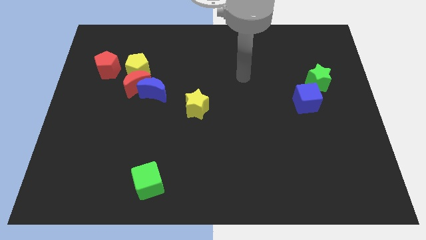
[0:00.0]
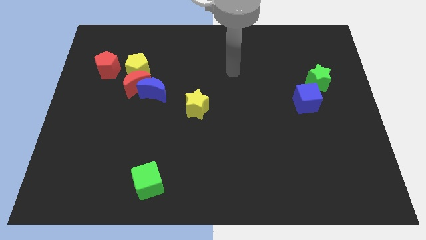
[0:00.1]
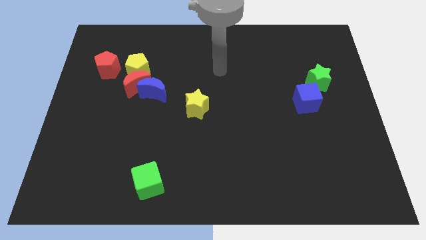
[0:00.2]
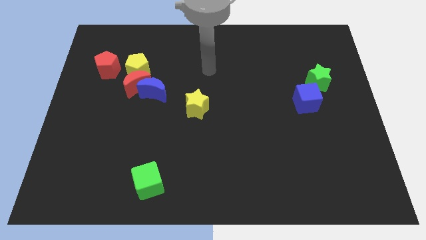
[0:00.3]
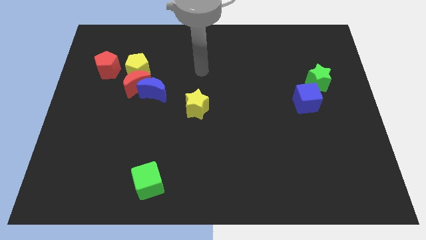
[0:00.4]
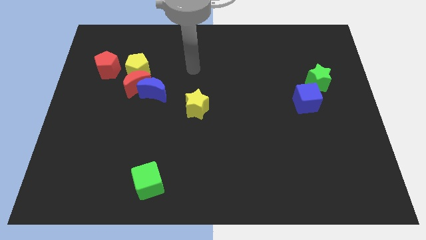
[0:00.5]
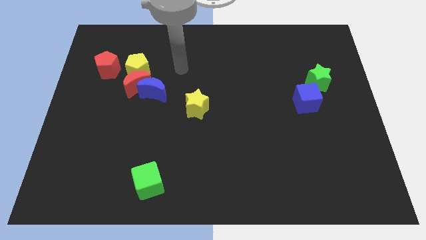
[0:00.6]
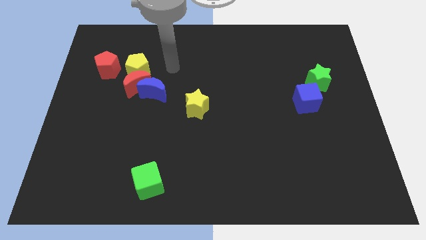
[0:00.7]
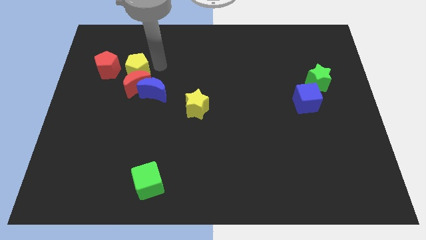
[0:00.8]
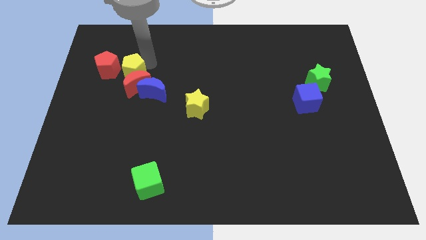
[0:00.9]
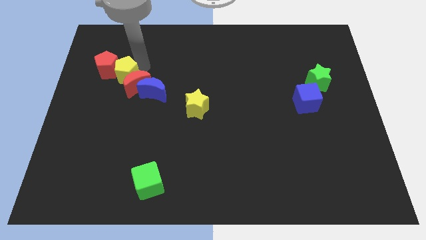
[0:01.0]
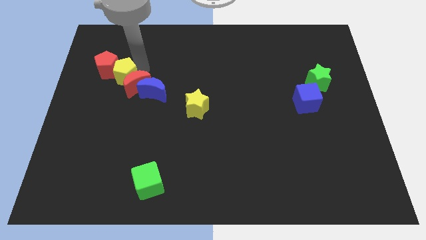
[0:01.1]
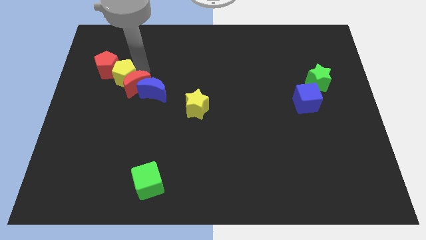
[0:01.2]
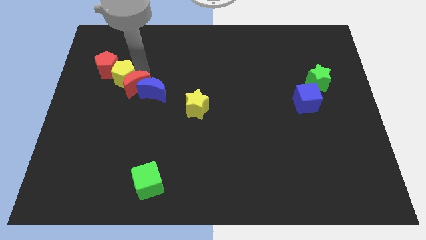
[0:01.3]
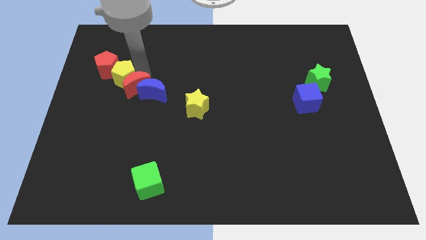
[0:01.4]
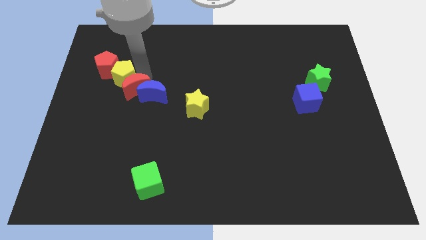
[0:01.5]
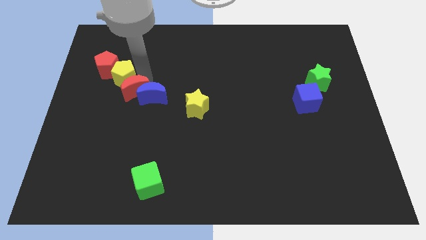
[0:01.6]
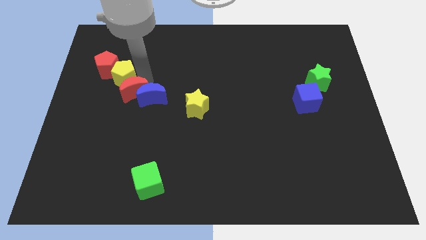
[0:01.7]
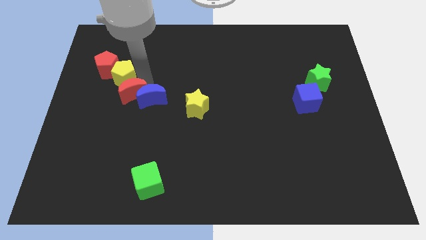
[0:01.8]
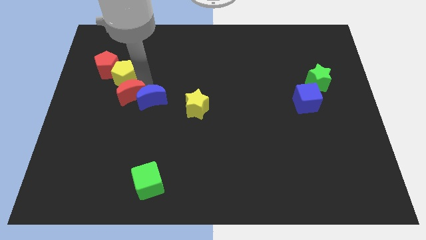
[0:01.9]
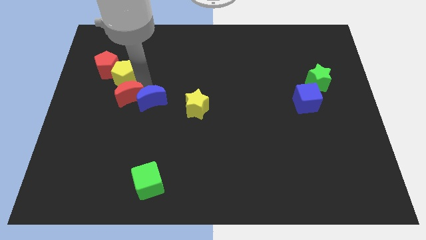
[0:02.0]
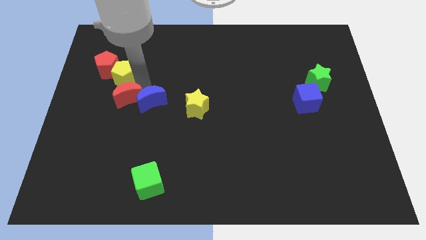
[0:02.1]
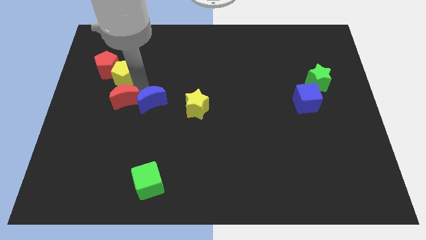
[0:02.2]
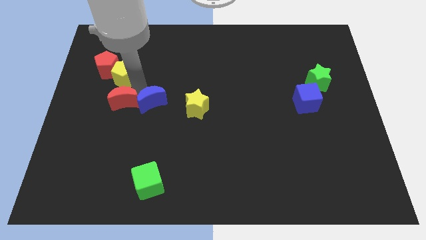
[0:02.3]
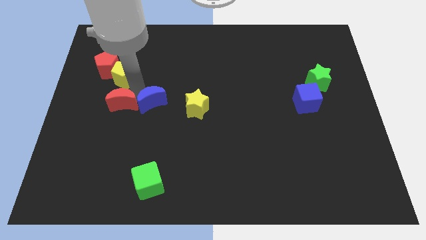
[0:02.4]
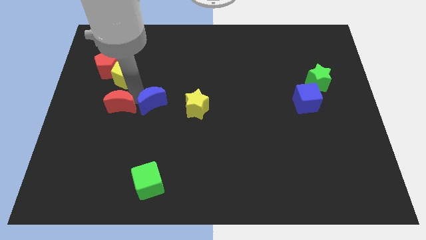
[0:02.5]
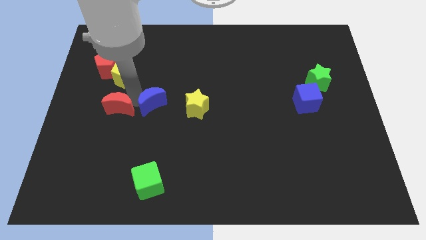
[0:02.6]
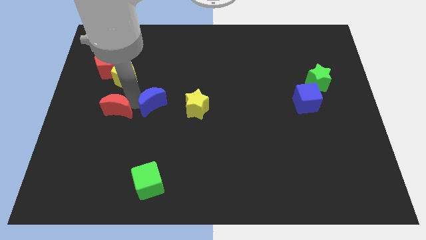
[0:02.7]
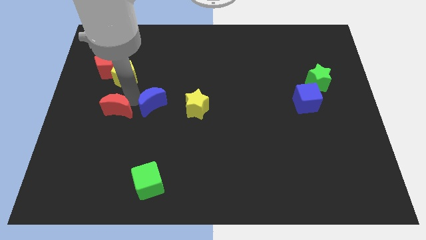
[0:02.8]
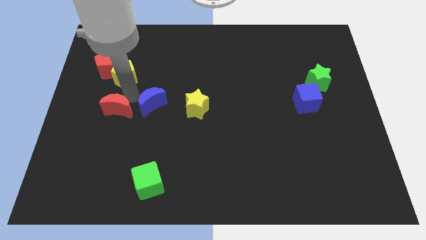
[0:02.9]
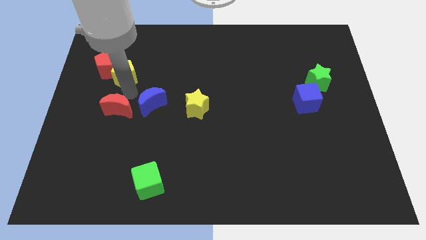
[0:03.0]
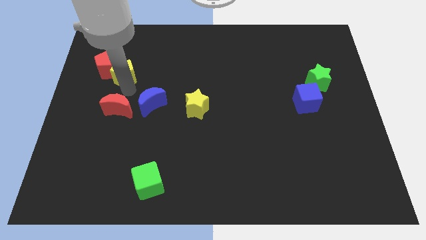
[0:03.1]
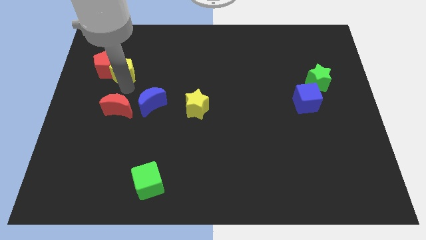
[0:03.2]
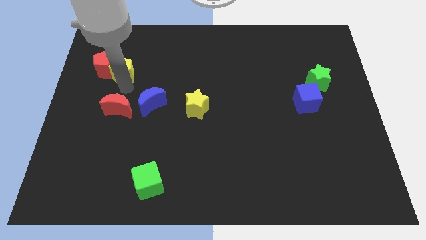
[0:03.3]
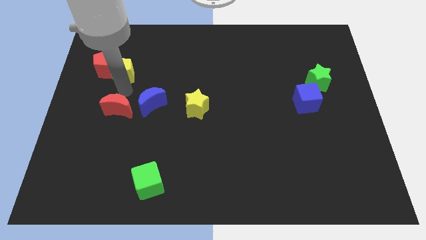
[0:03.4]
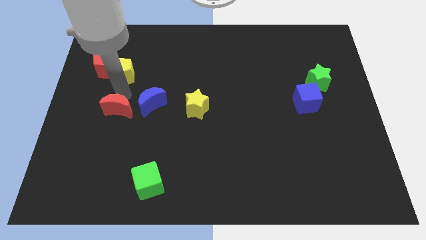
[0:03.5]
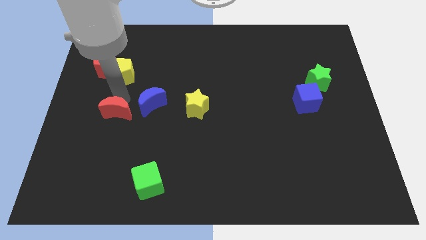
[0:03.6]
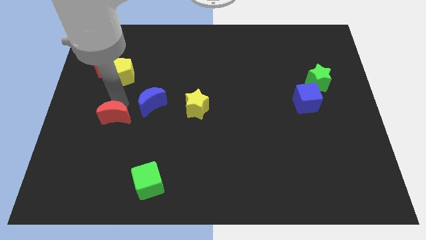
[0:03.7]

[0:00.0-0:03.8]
separate the red moon from the blue moon, yellow pentagon, and red pentagon

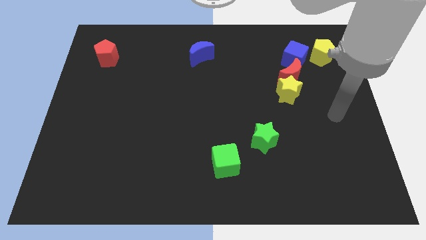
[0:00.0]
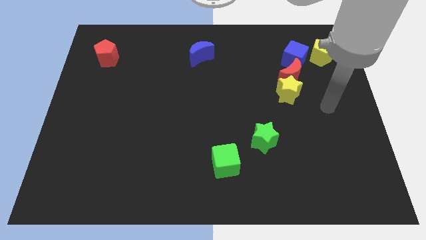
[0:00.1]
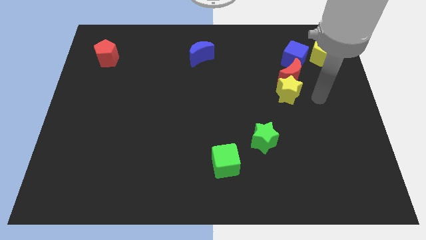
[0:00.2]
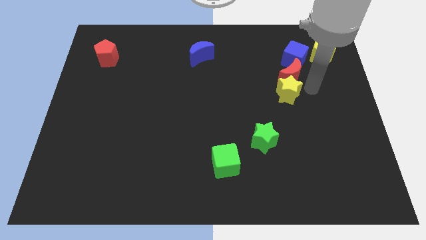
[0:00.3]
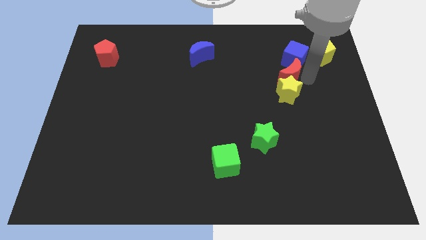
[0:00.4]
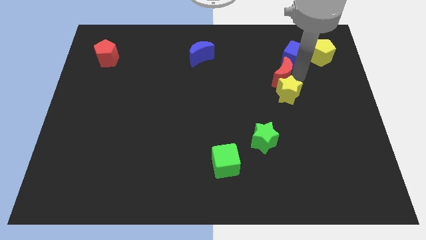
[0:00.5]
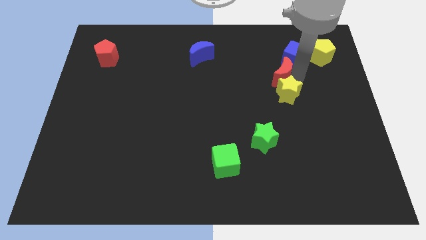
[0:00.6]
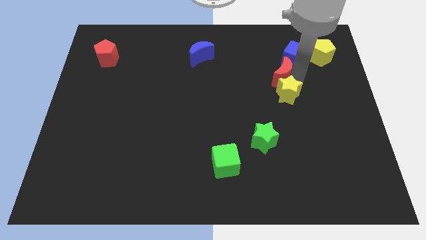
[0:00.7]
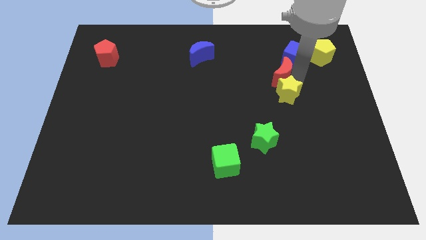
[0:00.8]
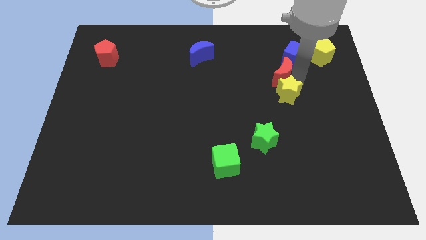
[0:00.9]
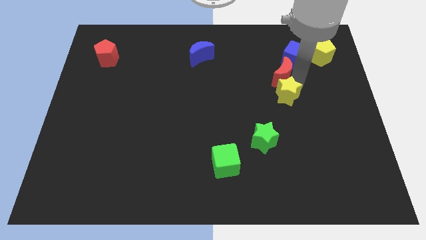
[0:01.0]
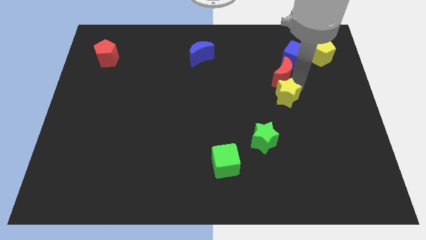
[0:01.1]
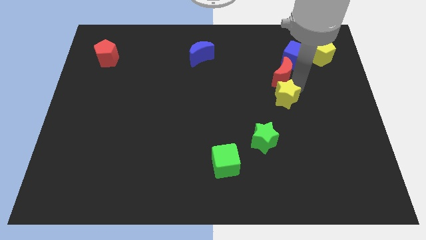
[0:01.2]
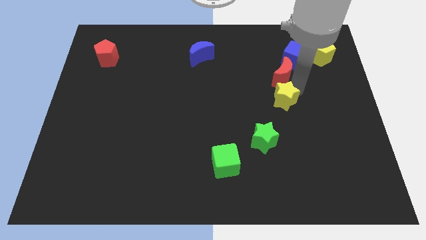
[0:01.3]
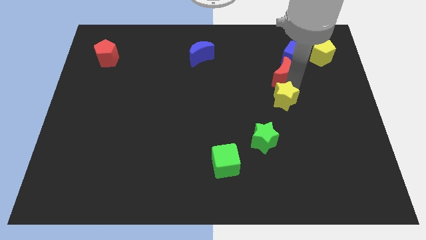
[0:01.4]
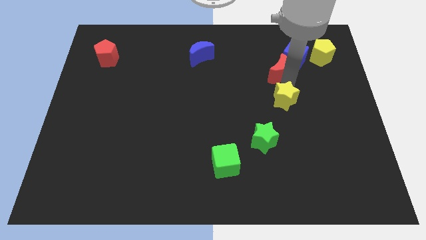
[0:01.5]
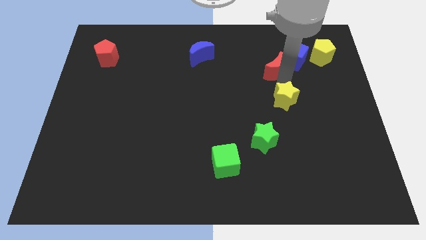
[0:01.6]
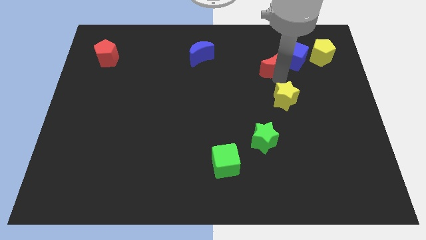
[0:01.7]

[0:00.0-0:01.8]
separate the yellow star from the red moon

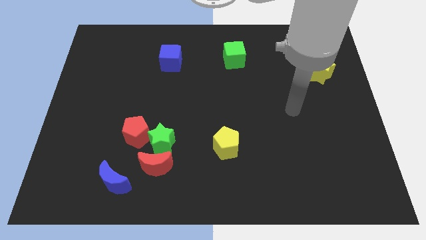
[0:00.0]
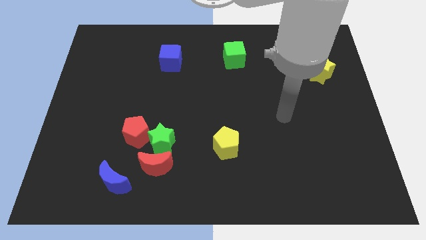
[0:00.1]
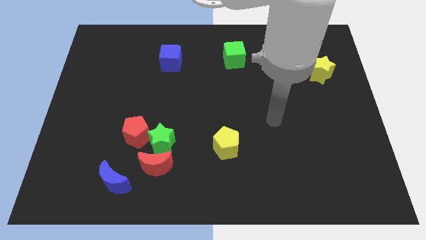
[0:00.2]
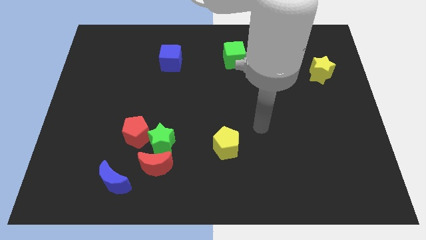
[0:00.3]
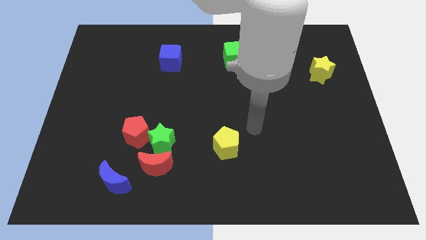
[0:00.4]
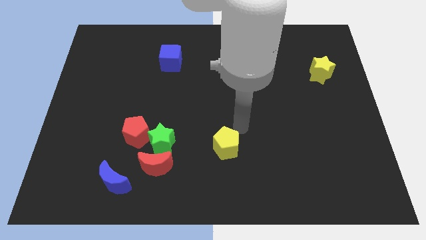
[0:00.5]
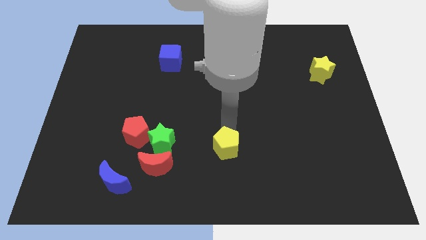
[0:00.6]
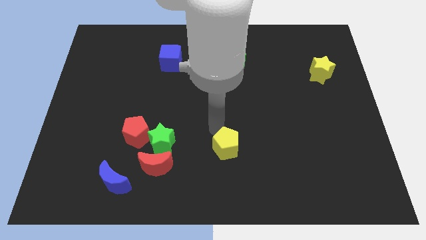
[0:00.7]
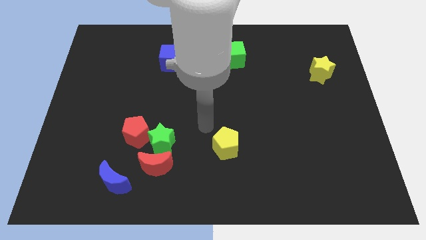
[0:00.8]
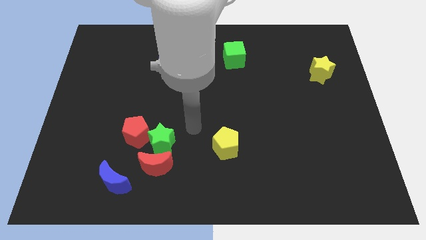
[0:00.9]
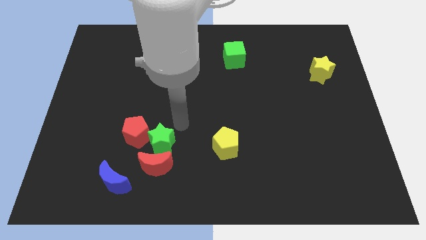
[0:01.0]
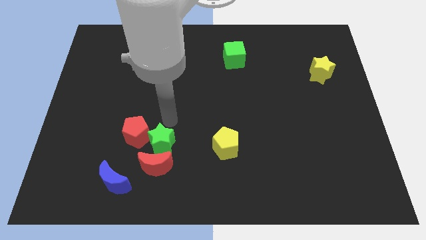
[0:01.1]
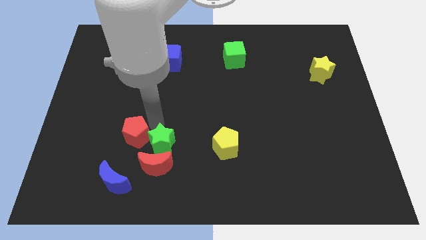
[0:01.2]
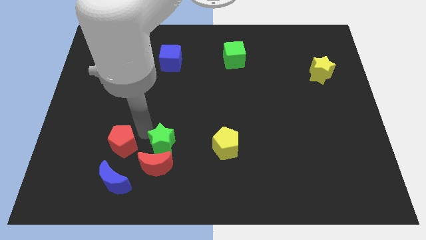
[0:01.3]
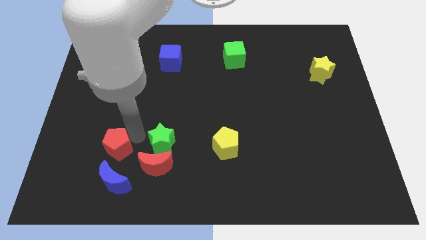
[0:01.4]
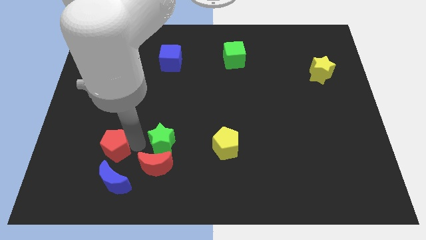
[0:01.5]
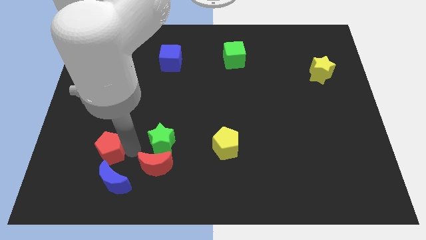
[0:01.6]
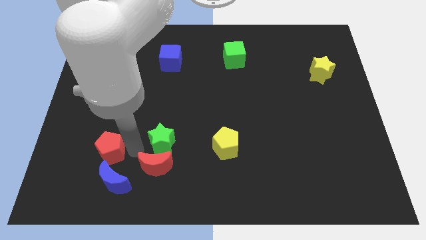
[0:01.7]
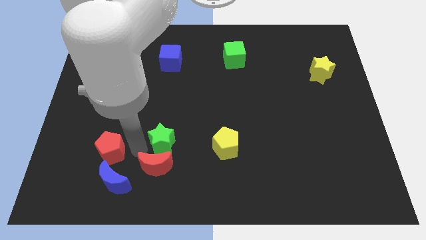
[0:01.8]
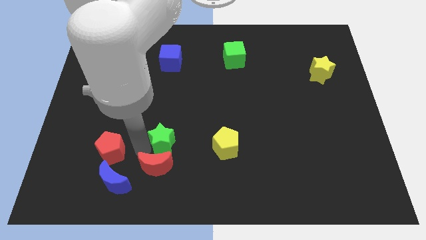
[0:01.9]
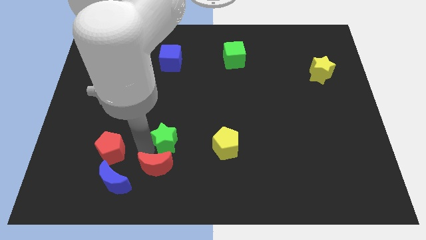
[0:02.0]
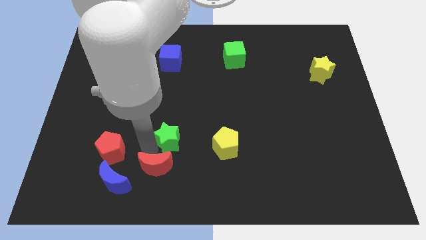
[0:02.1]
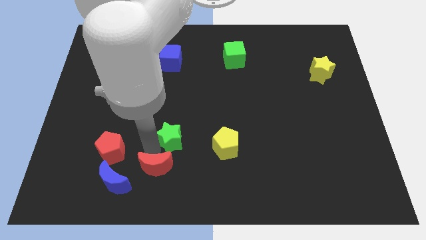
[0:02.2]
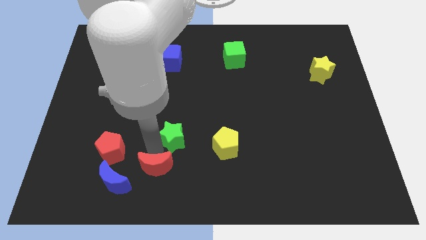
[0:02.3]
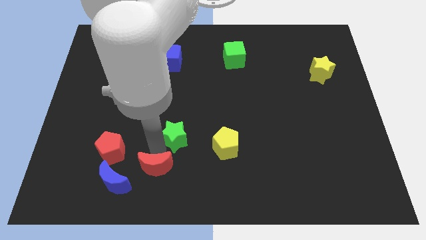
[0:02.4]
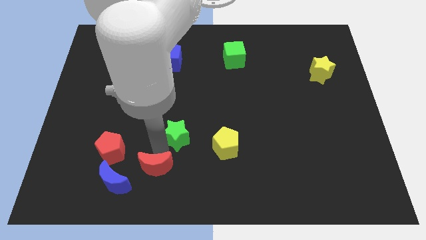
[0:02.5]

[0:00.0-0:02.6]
move the green star away from the red pentagon and red moon

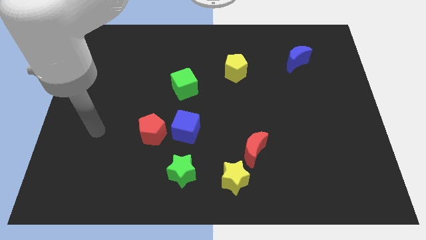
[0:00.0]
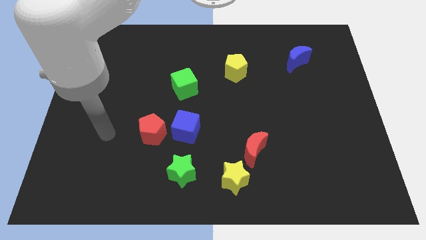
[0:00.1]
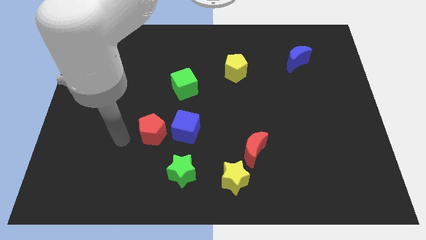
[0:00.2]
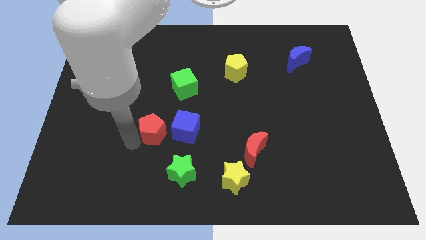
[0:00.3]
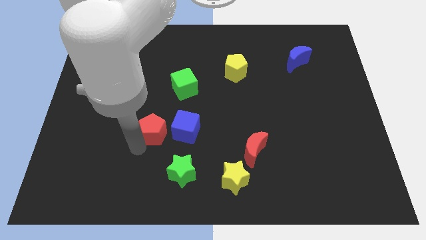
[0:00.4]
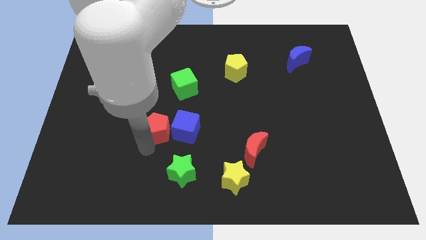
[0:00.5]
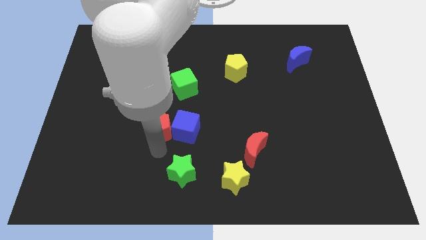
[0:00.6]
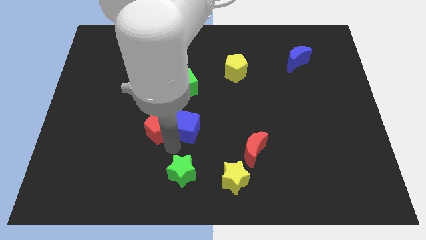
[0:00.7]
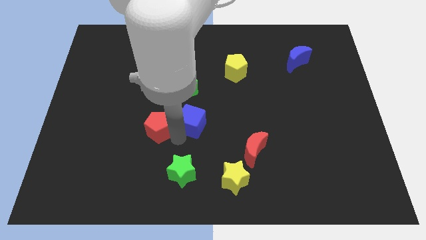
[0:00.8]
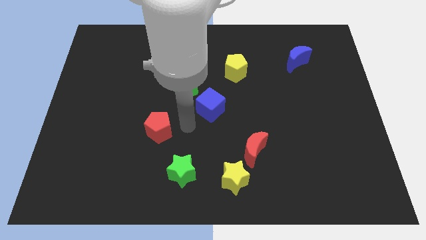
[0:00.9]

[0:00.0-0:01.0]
pull the red pentagon apart from the blue cube

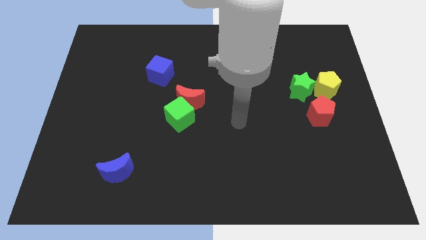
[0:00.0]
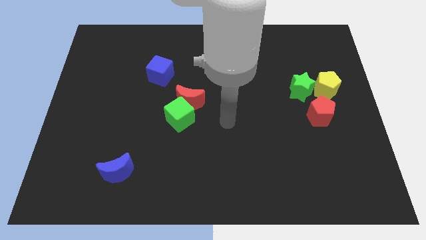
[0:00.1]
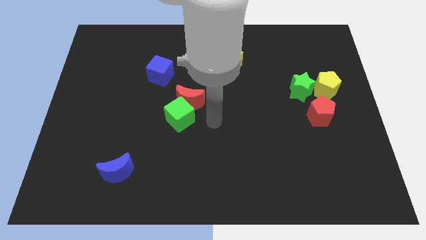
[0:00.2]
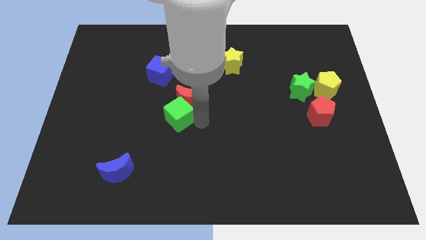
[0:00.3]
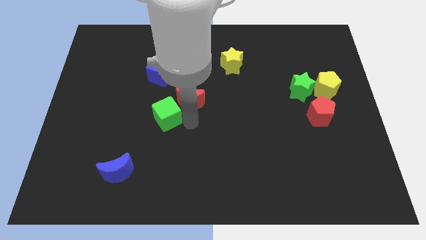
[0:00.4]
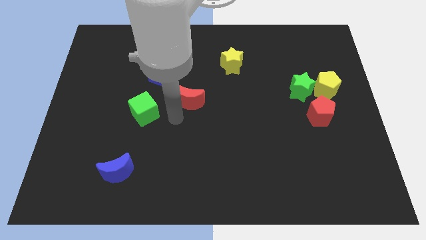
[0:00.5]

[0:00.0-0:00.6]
pull the red moon apart from the green cube
